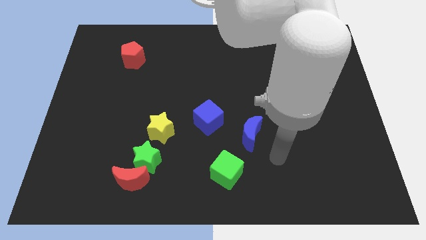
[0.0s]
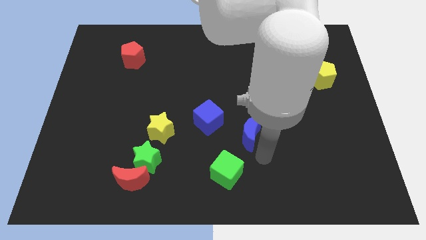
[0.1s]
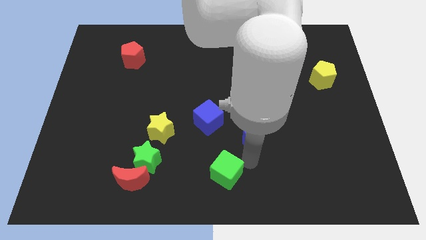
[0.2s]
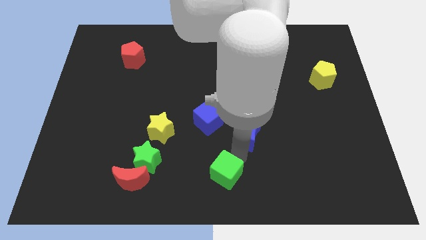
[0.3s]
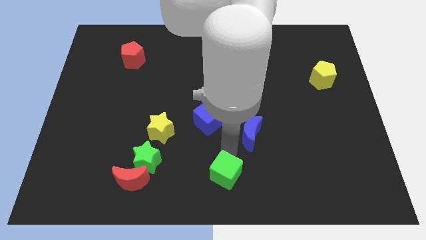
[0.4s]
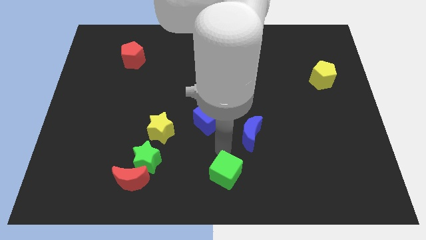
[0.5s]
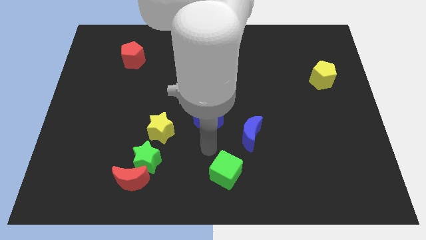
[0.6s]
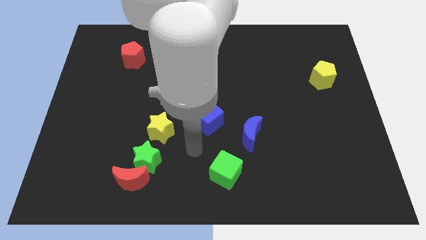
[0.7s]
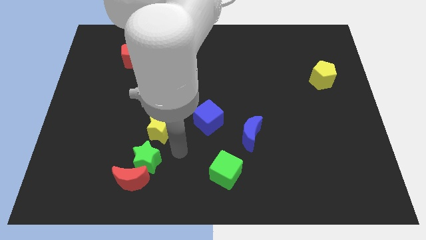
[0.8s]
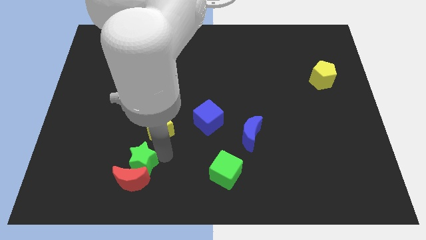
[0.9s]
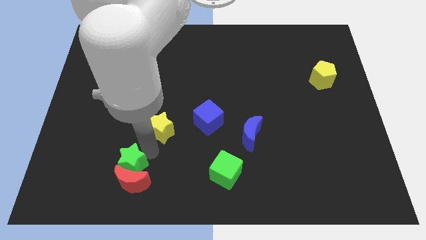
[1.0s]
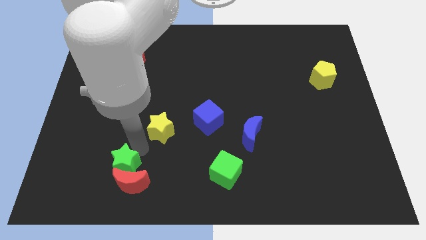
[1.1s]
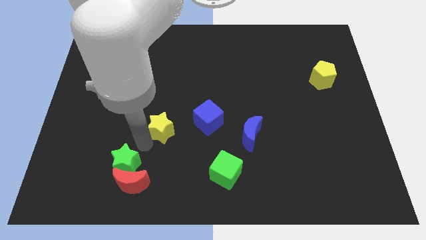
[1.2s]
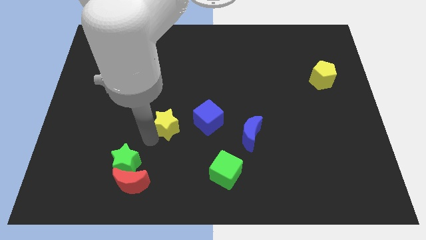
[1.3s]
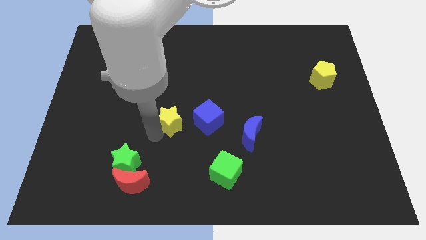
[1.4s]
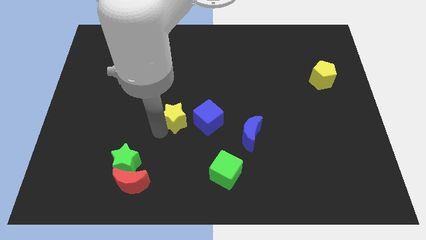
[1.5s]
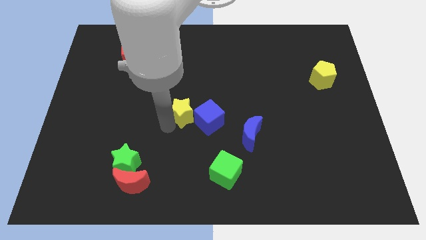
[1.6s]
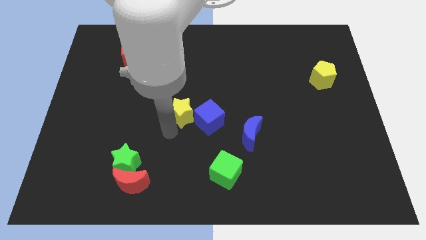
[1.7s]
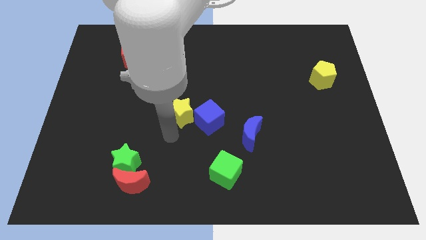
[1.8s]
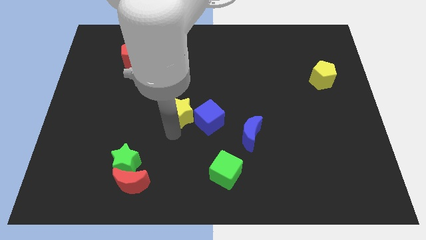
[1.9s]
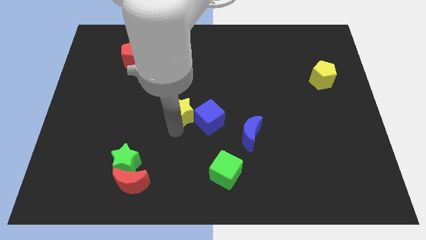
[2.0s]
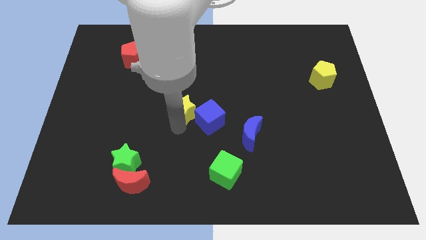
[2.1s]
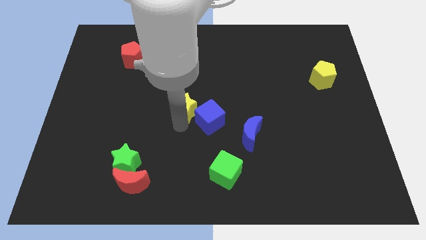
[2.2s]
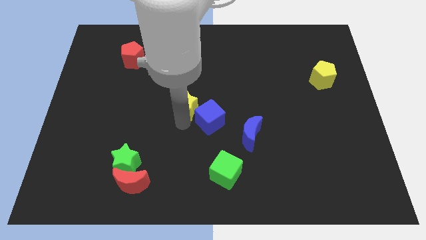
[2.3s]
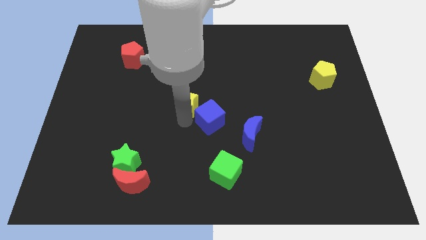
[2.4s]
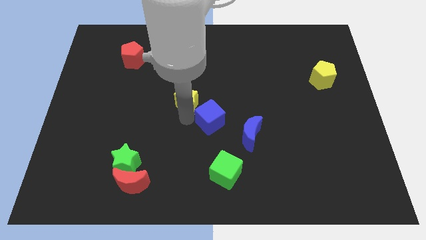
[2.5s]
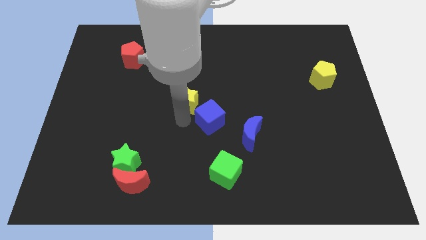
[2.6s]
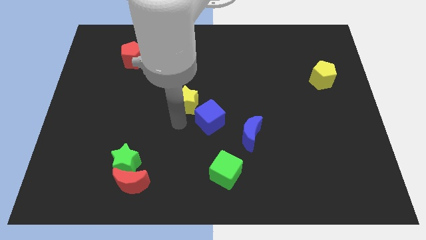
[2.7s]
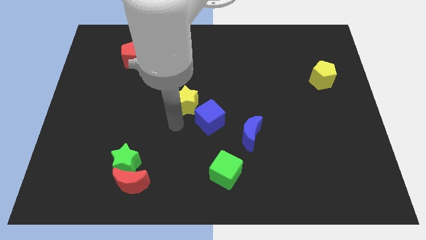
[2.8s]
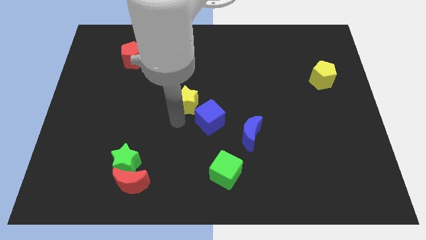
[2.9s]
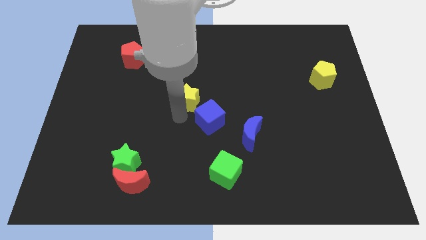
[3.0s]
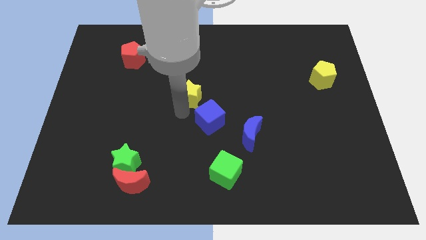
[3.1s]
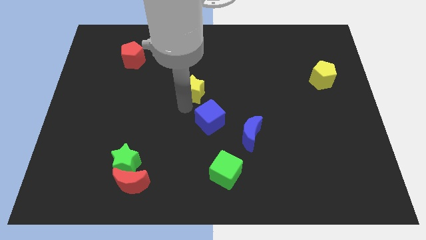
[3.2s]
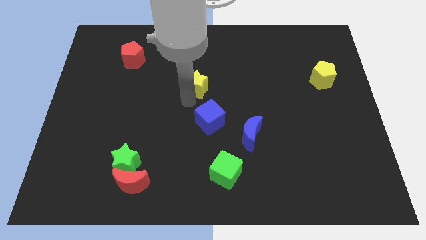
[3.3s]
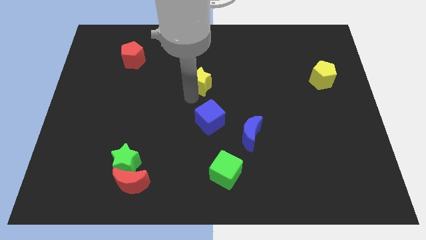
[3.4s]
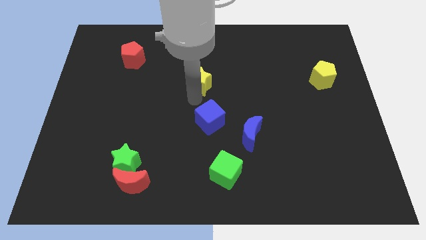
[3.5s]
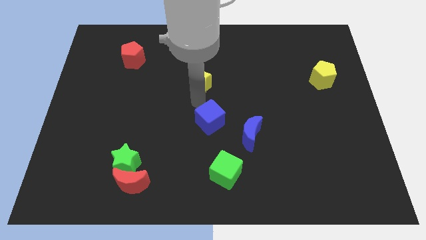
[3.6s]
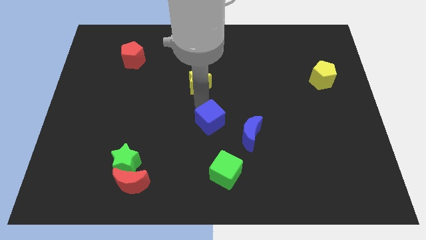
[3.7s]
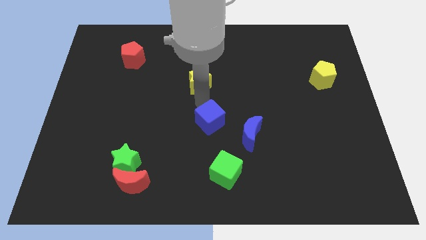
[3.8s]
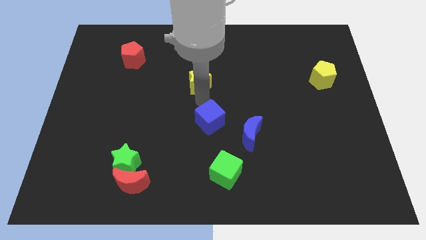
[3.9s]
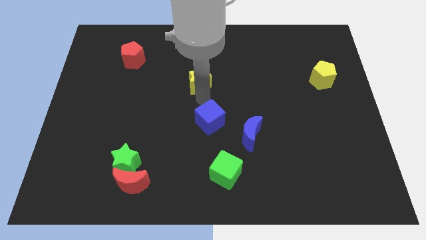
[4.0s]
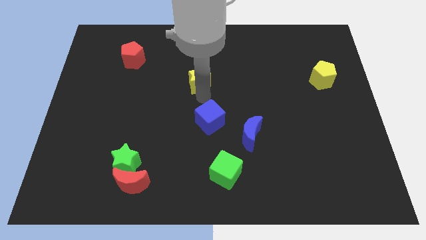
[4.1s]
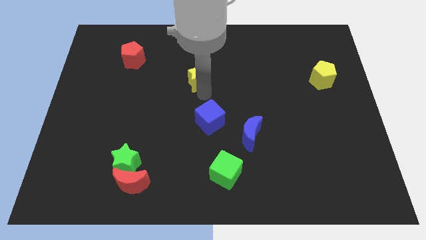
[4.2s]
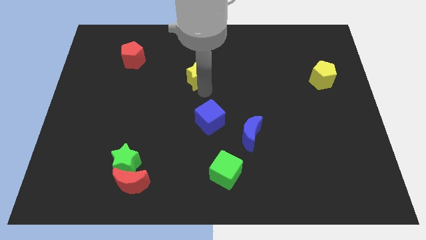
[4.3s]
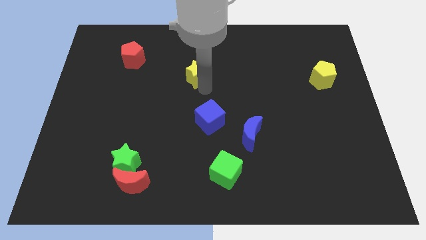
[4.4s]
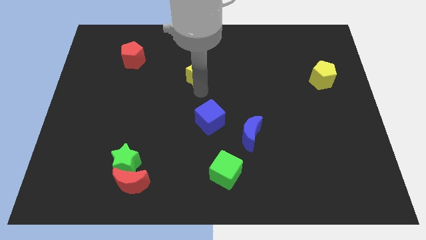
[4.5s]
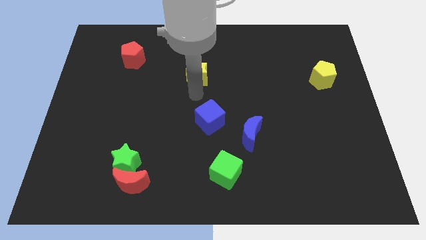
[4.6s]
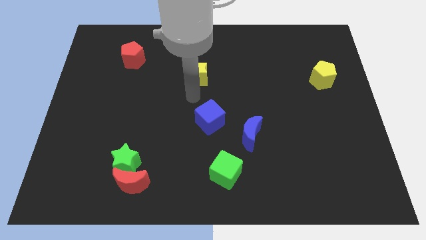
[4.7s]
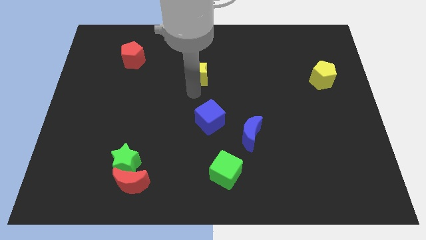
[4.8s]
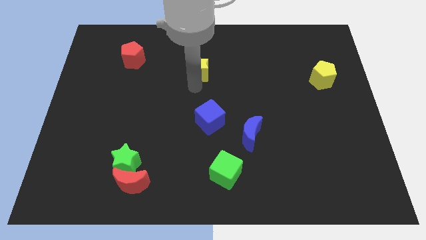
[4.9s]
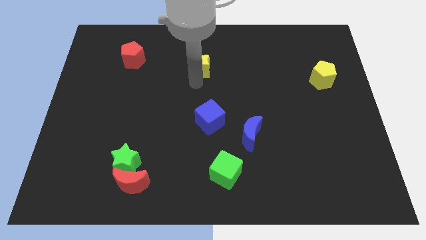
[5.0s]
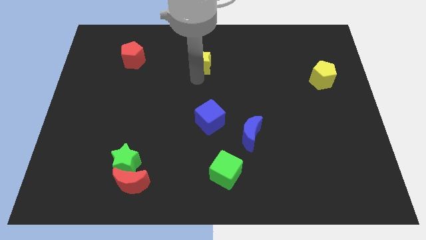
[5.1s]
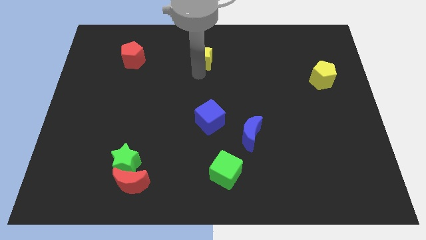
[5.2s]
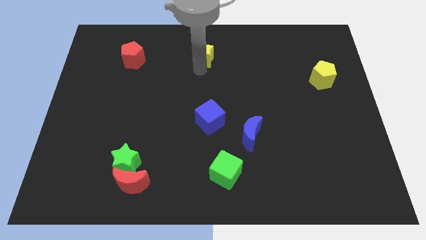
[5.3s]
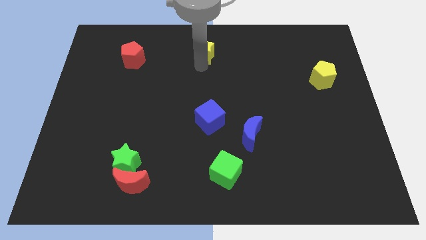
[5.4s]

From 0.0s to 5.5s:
put the yellow star to the towards your base

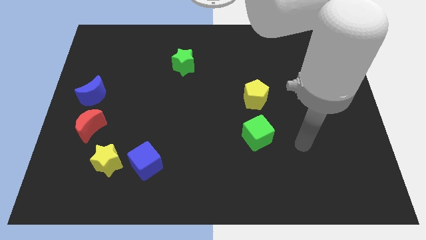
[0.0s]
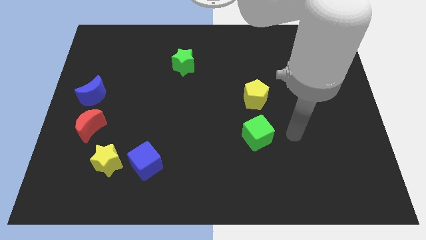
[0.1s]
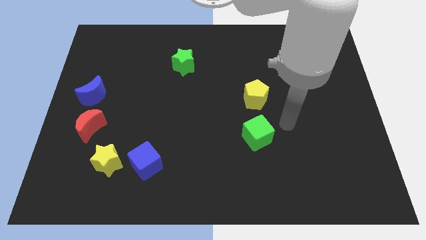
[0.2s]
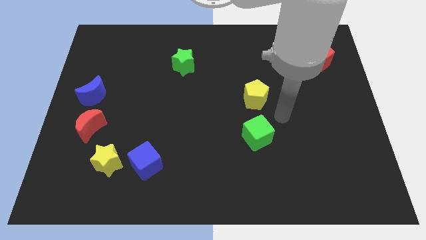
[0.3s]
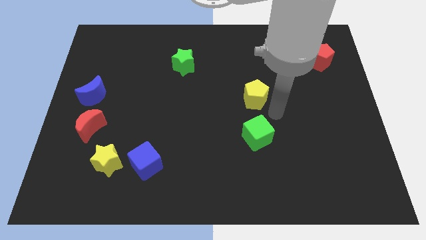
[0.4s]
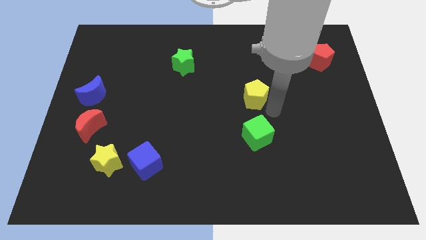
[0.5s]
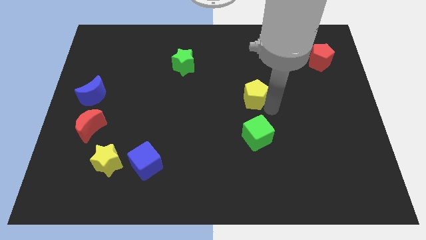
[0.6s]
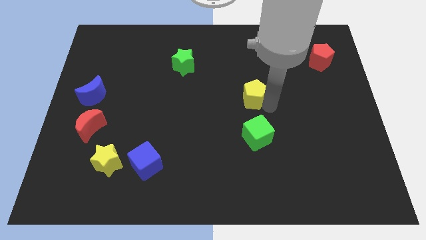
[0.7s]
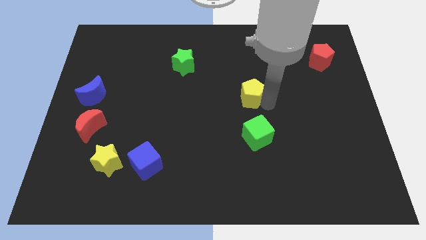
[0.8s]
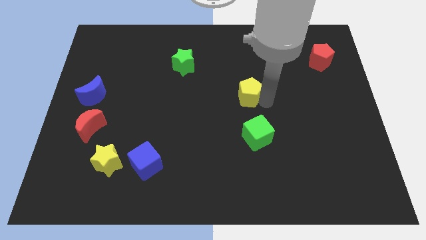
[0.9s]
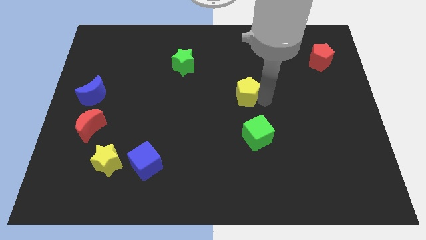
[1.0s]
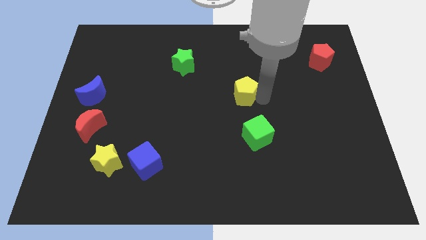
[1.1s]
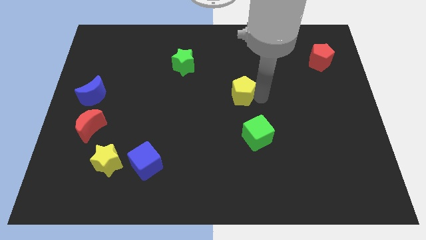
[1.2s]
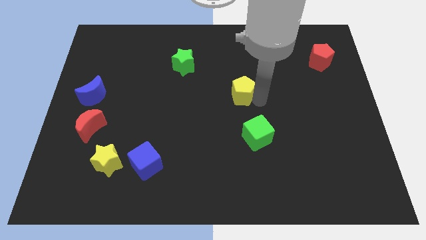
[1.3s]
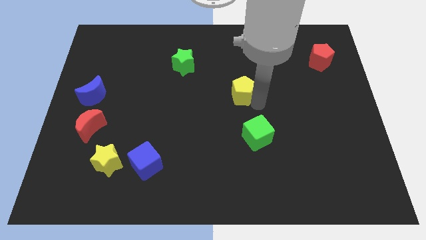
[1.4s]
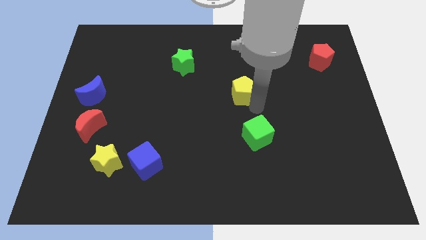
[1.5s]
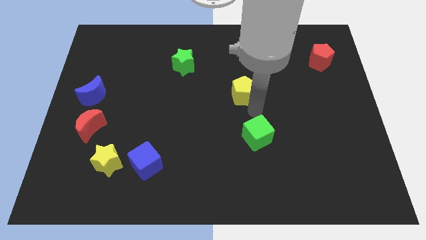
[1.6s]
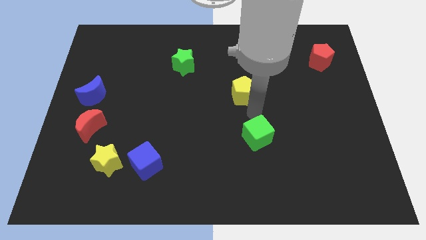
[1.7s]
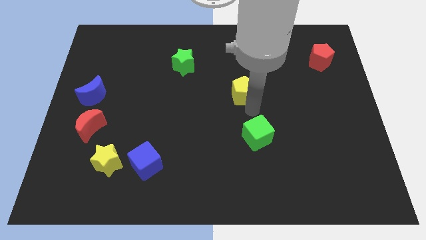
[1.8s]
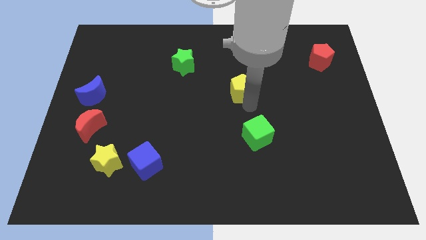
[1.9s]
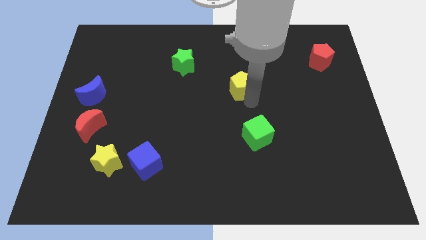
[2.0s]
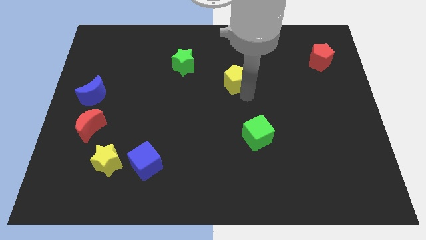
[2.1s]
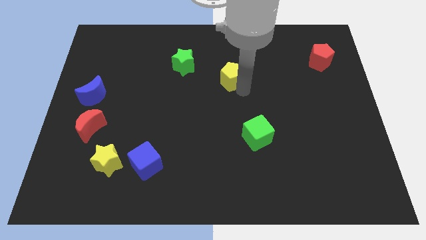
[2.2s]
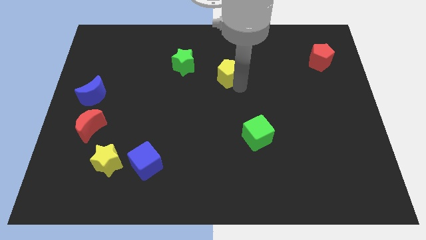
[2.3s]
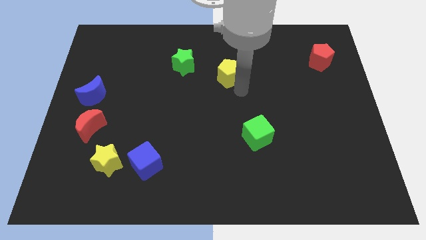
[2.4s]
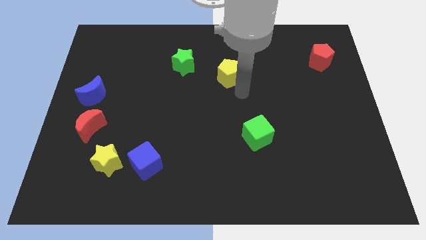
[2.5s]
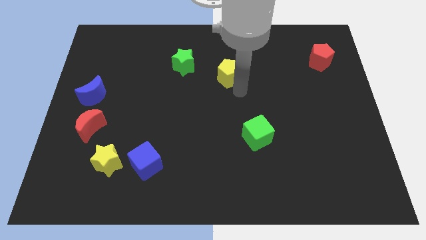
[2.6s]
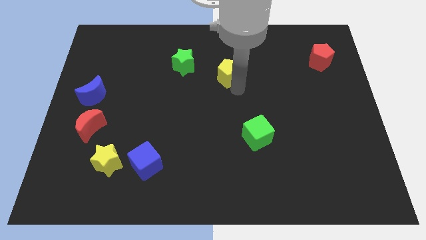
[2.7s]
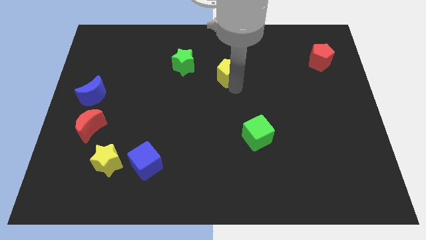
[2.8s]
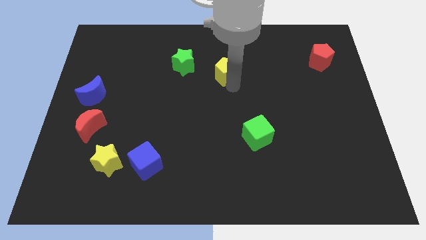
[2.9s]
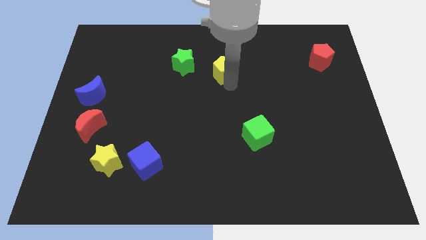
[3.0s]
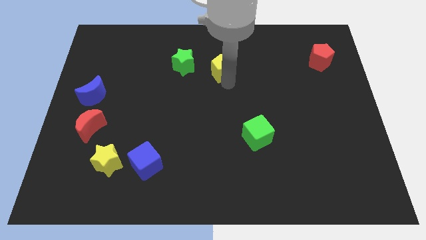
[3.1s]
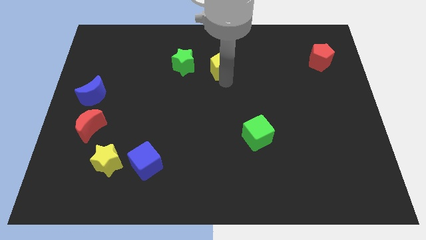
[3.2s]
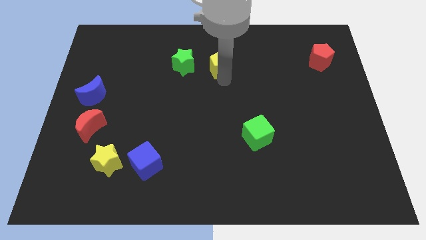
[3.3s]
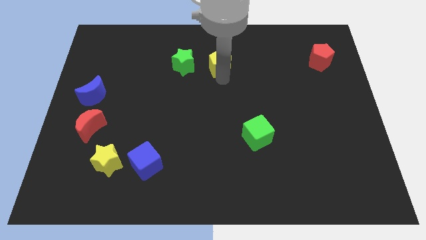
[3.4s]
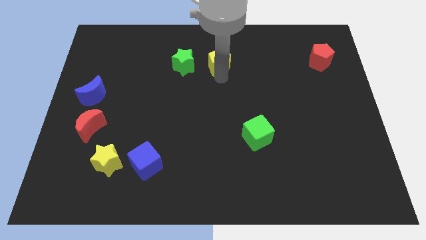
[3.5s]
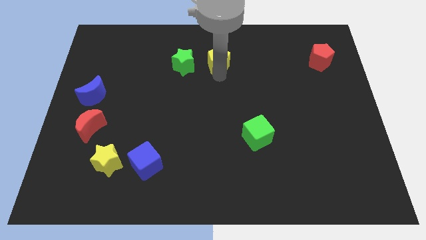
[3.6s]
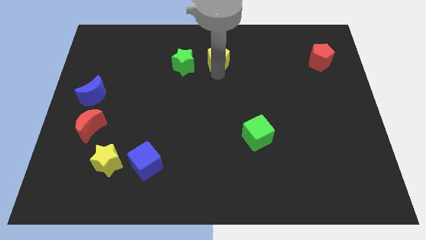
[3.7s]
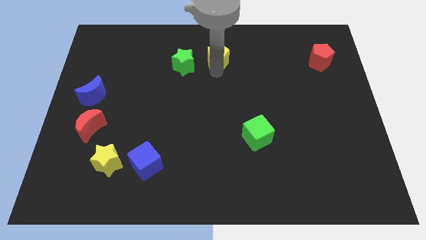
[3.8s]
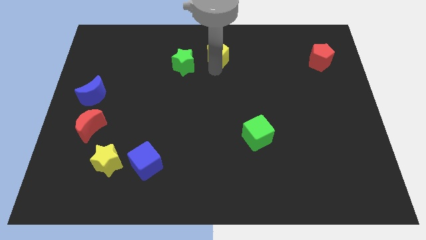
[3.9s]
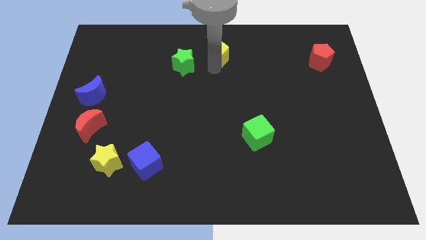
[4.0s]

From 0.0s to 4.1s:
slide the yellow pentagon to the top side
